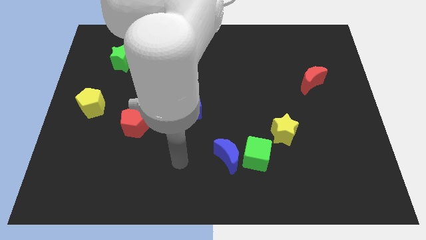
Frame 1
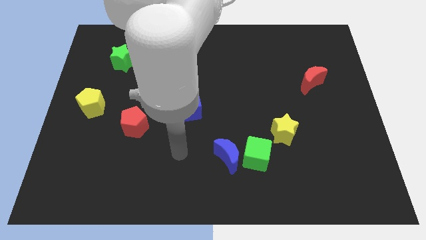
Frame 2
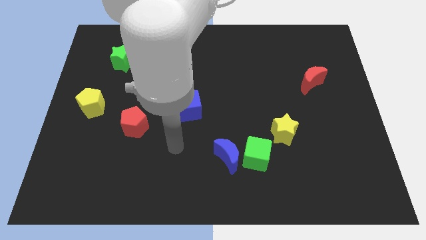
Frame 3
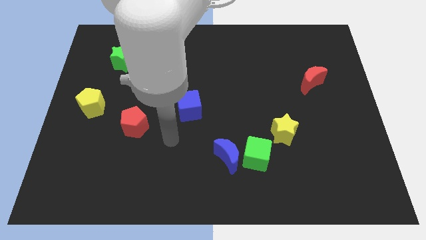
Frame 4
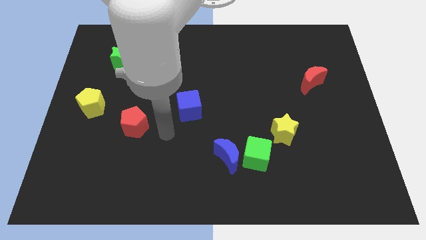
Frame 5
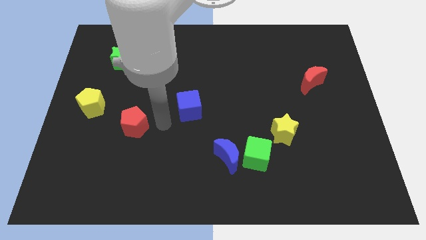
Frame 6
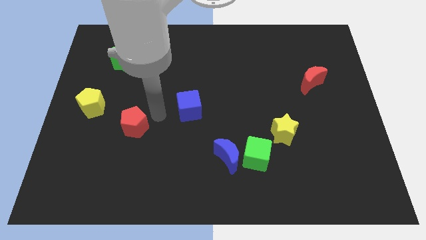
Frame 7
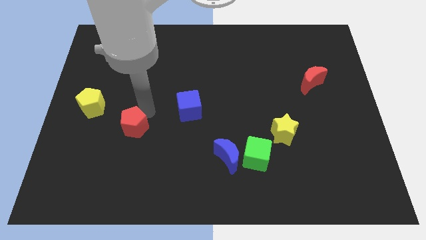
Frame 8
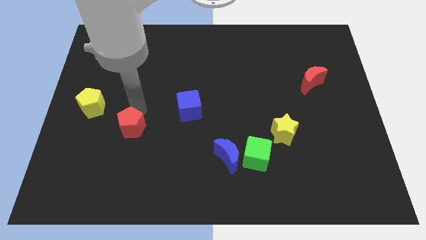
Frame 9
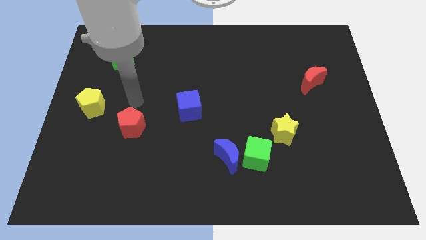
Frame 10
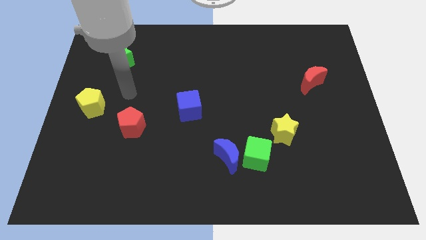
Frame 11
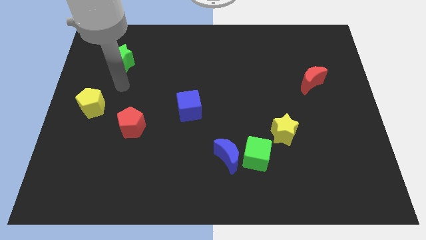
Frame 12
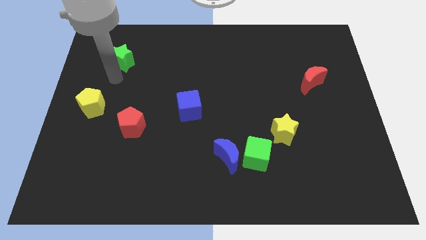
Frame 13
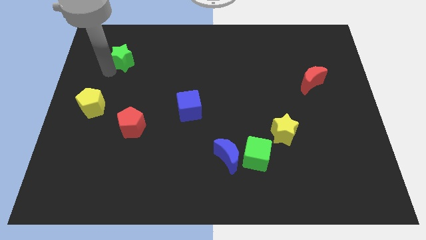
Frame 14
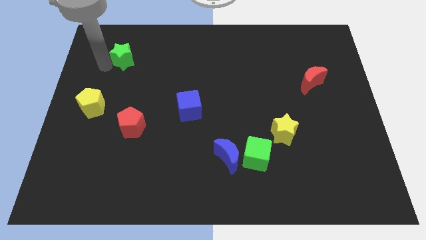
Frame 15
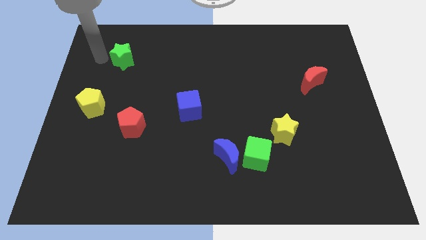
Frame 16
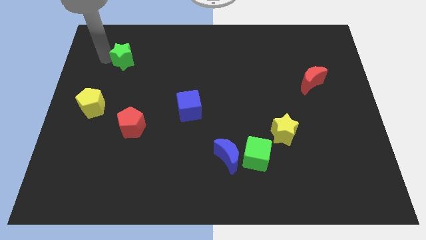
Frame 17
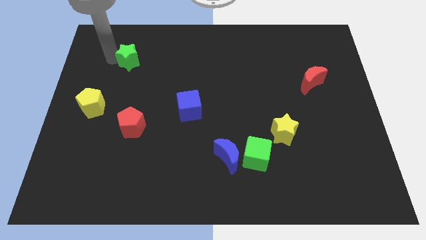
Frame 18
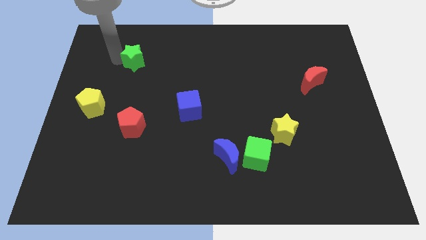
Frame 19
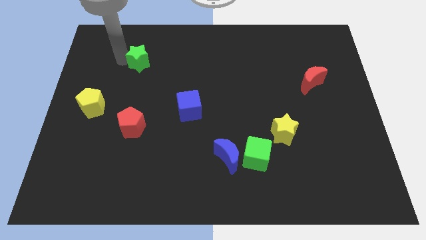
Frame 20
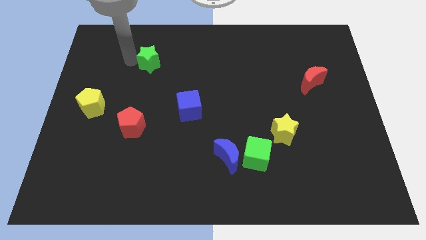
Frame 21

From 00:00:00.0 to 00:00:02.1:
push the green star a little bit to the right

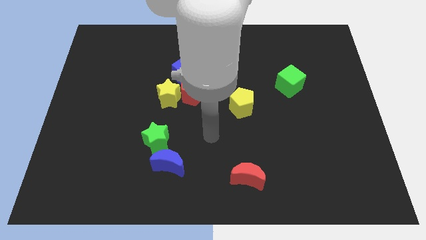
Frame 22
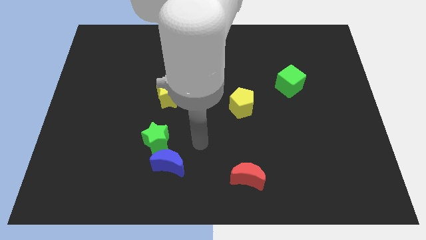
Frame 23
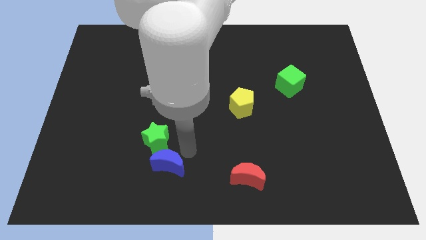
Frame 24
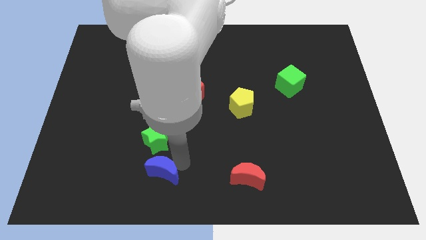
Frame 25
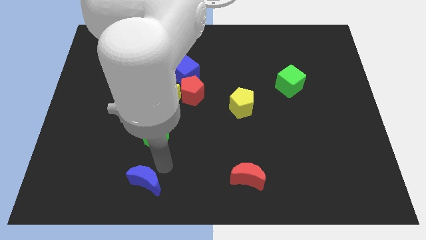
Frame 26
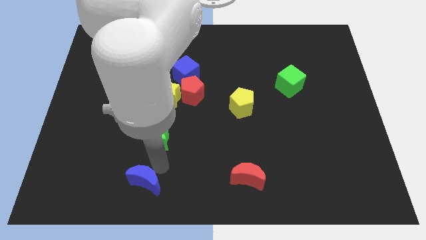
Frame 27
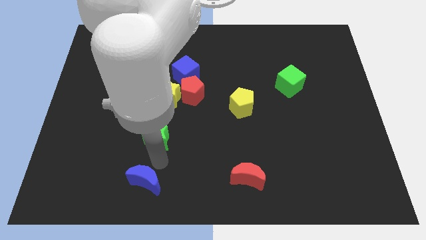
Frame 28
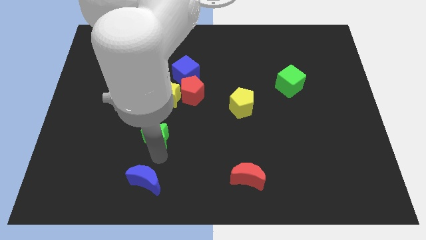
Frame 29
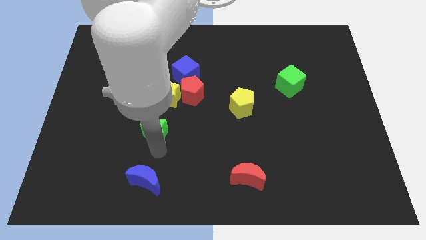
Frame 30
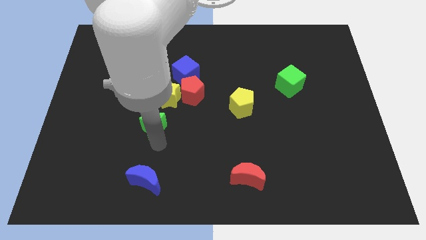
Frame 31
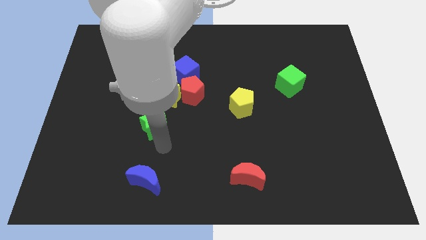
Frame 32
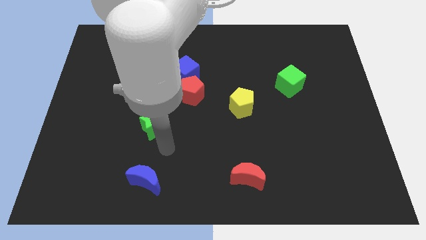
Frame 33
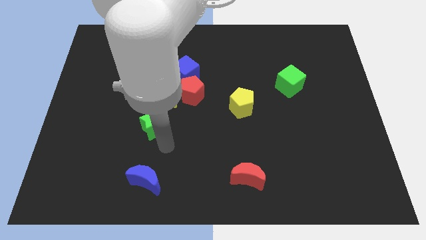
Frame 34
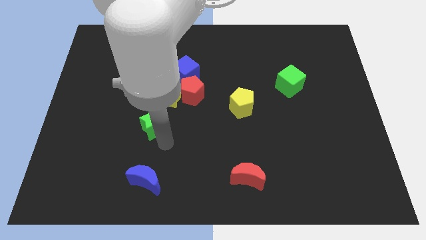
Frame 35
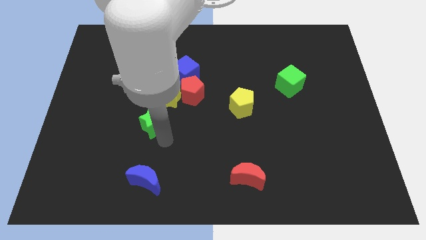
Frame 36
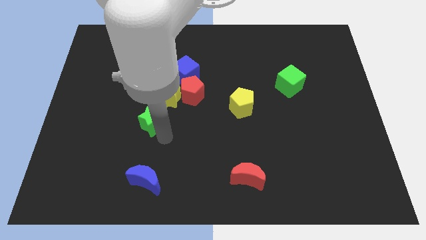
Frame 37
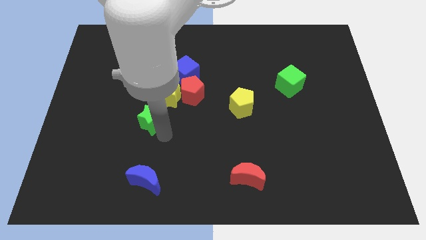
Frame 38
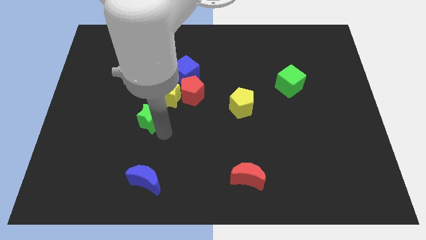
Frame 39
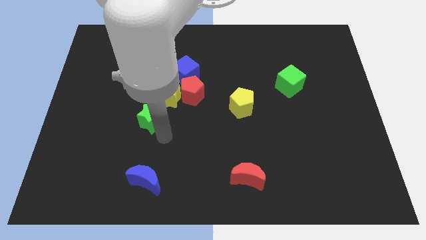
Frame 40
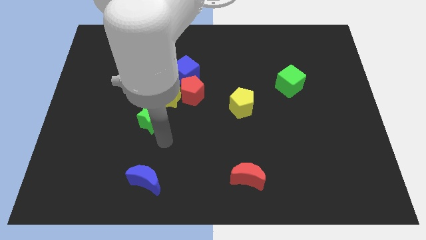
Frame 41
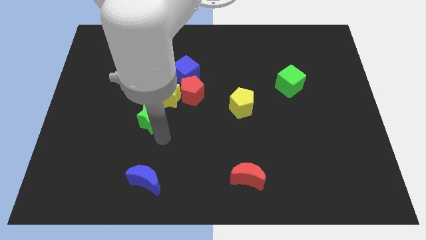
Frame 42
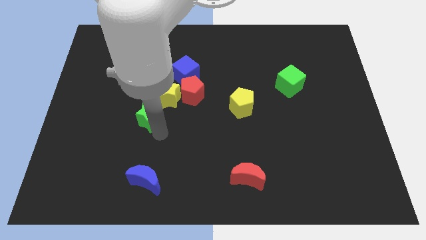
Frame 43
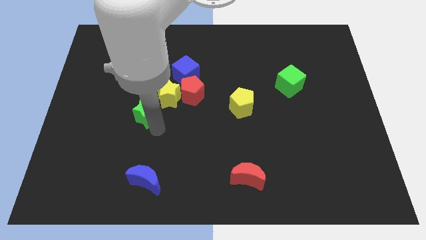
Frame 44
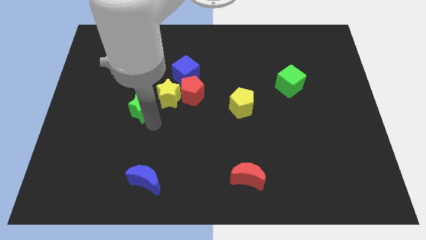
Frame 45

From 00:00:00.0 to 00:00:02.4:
slightly move the green star upwards

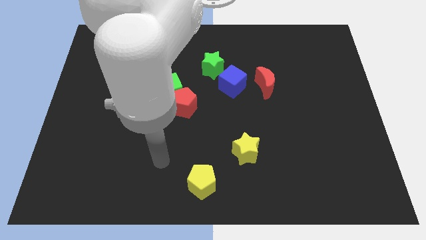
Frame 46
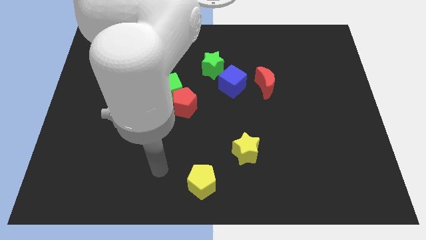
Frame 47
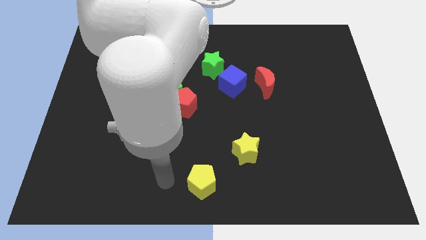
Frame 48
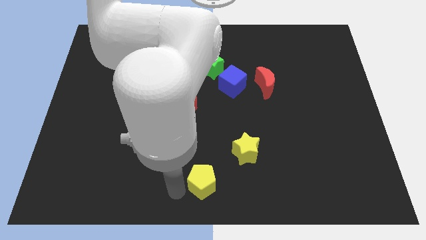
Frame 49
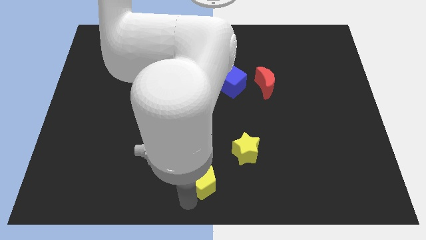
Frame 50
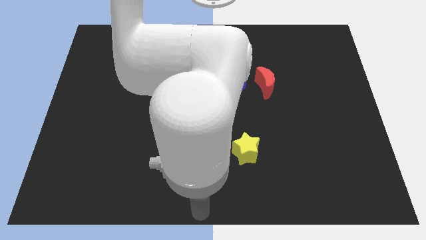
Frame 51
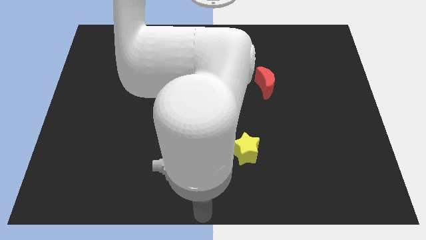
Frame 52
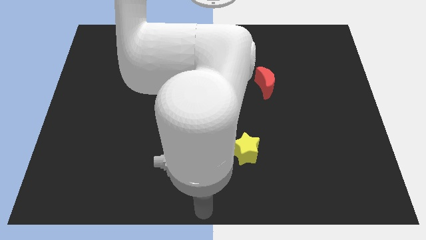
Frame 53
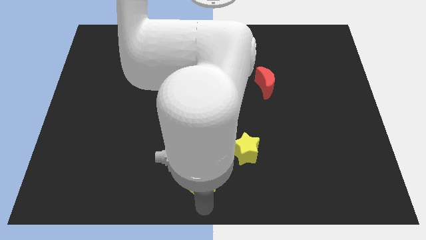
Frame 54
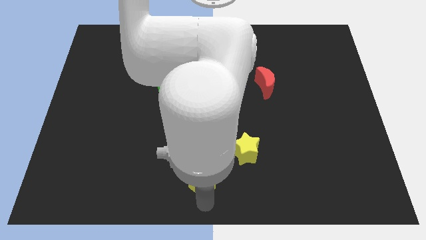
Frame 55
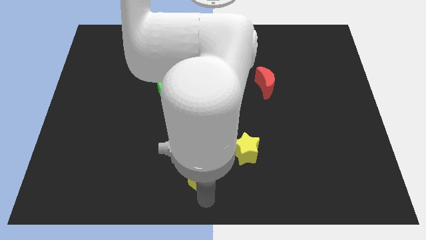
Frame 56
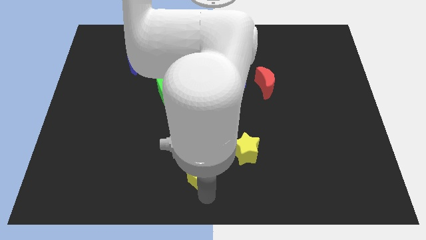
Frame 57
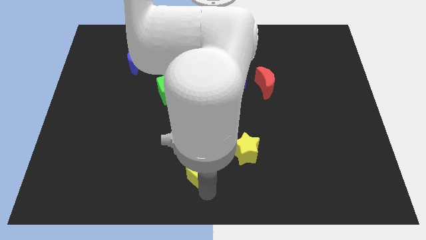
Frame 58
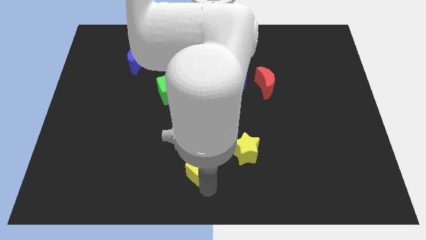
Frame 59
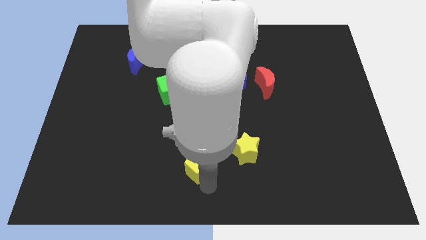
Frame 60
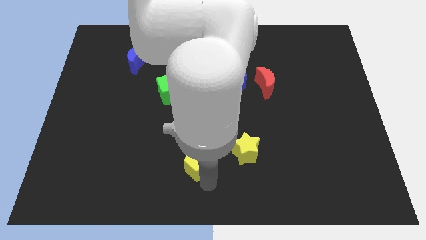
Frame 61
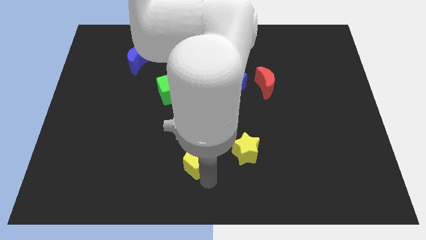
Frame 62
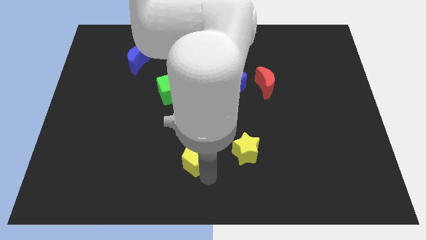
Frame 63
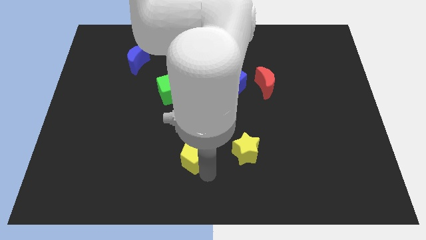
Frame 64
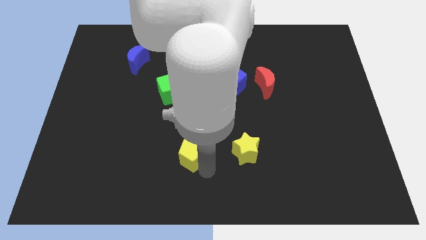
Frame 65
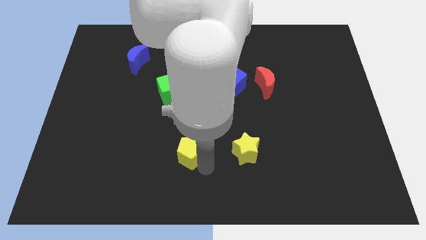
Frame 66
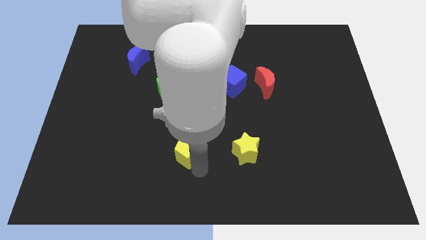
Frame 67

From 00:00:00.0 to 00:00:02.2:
slide the yellow pentagon a bit upwards

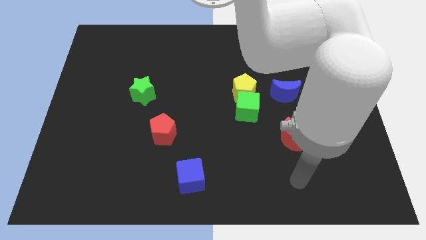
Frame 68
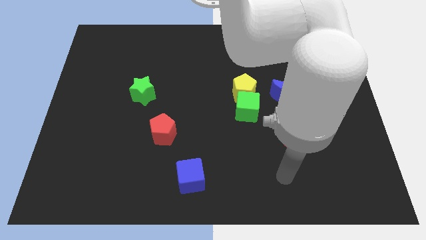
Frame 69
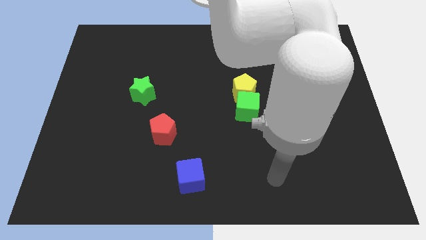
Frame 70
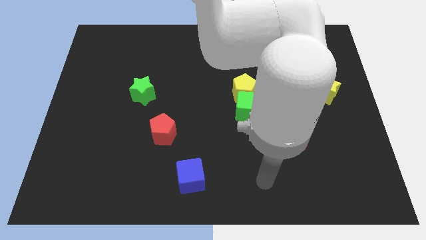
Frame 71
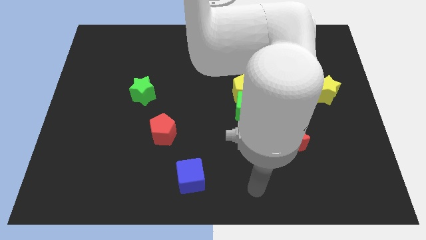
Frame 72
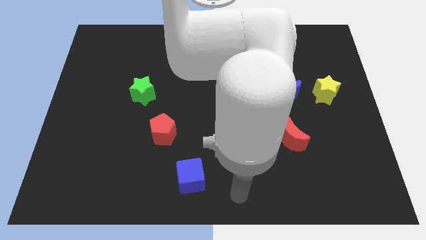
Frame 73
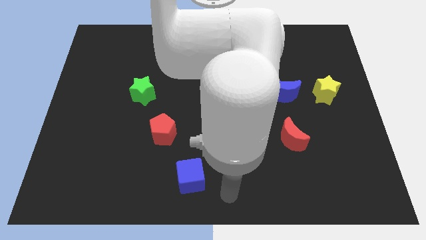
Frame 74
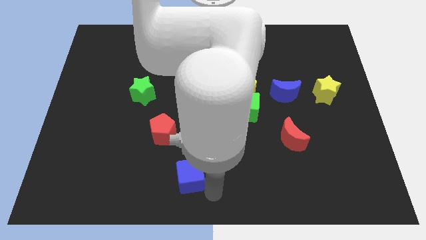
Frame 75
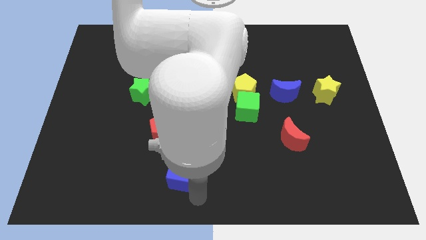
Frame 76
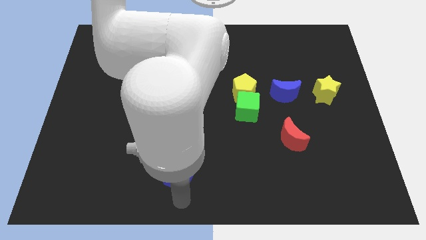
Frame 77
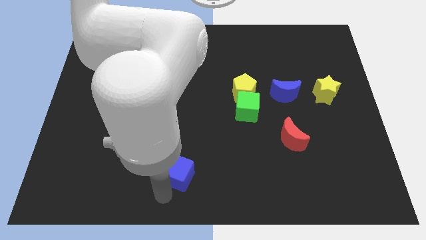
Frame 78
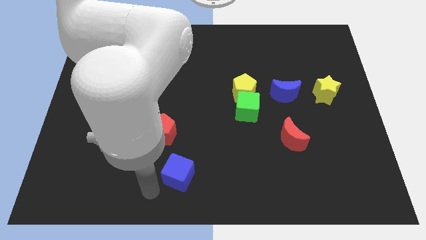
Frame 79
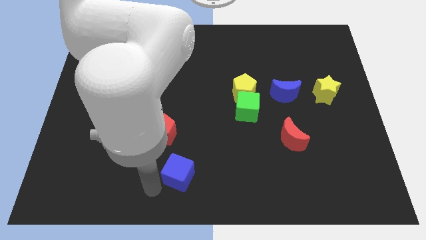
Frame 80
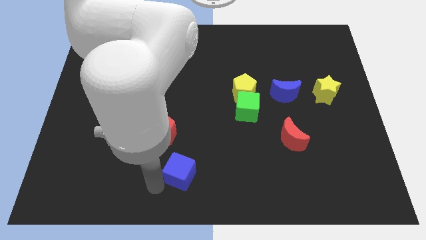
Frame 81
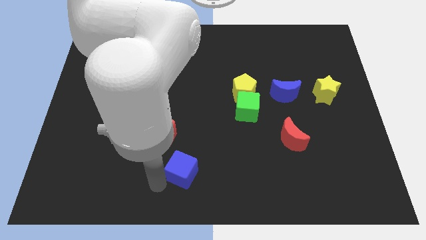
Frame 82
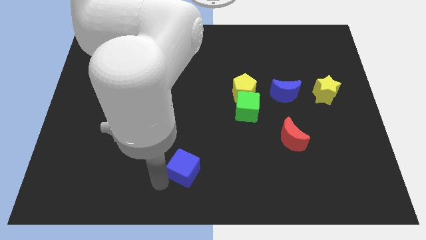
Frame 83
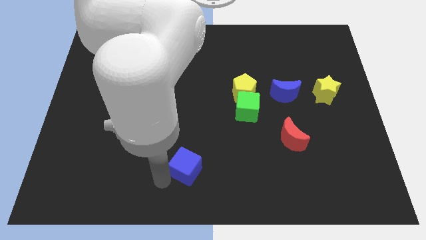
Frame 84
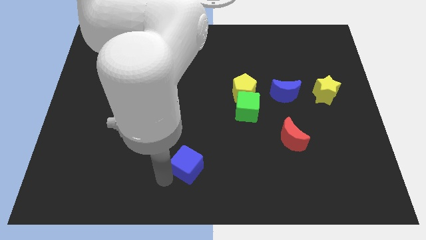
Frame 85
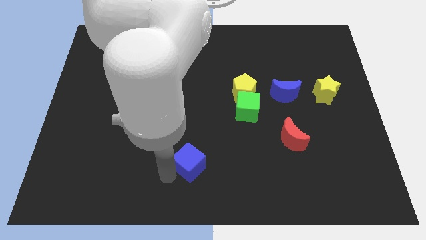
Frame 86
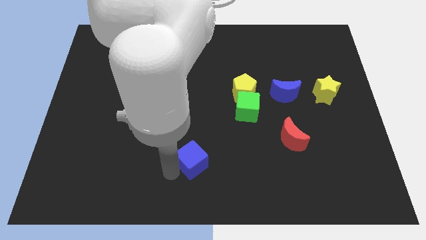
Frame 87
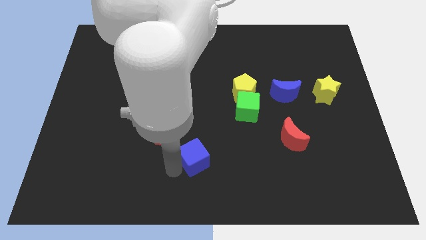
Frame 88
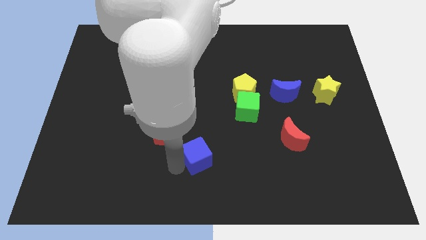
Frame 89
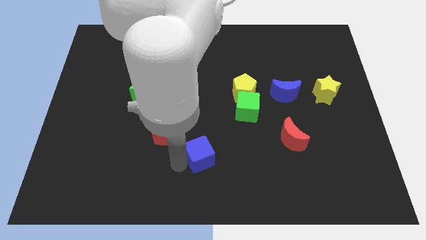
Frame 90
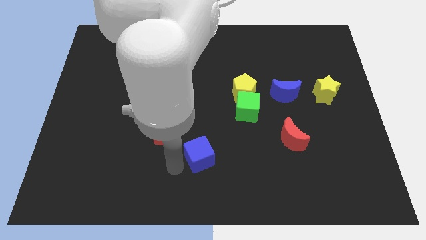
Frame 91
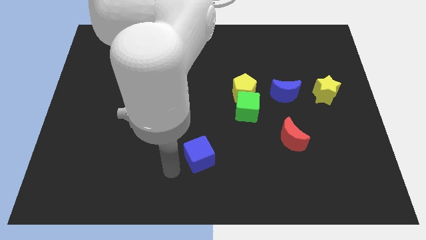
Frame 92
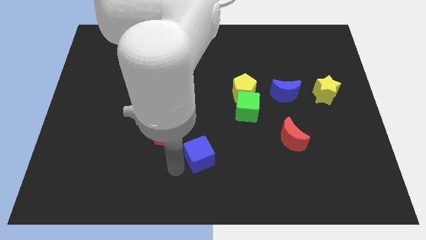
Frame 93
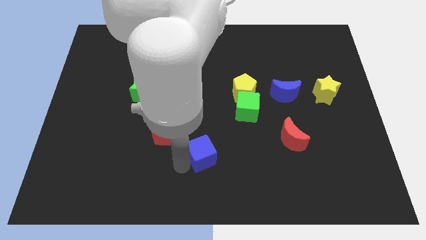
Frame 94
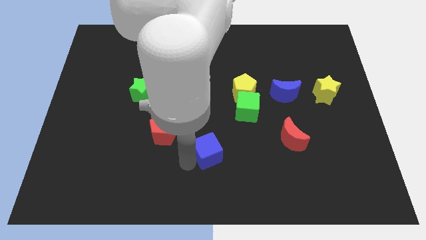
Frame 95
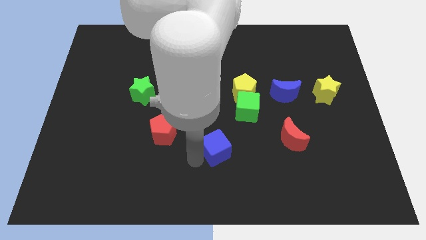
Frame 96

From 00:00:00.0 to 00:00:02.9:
slightly push the blue cube up and then right
